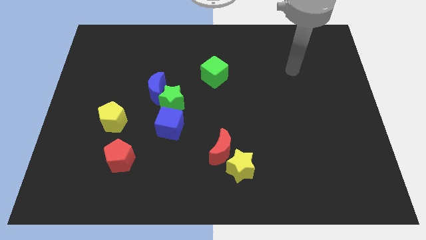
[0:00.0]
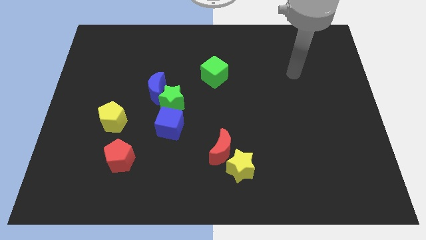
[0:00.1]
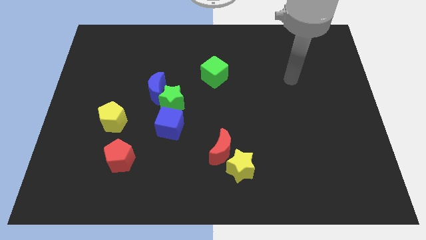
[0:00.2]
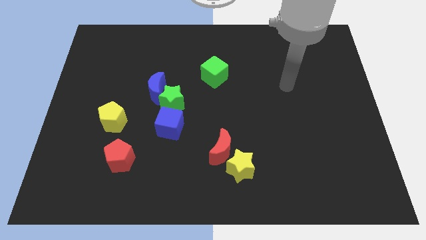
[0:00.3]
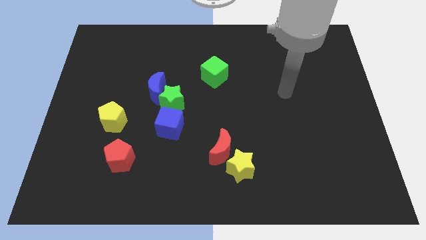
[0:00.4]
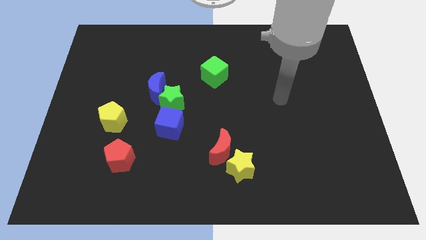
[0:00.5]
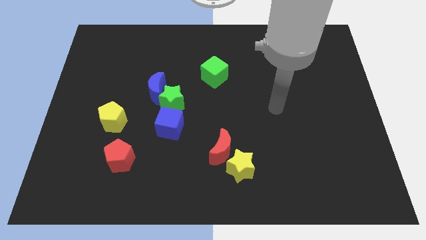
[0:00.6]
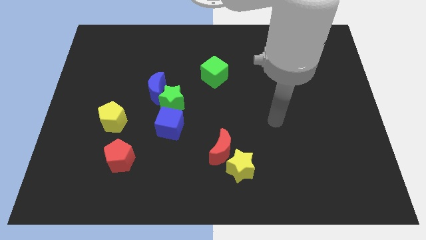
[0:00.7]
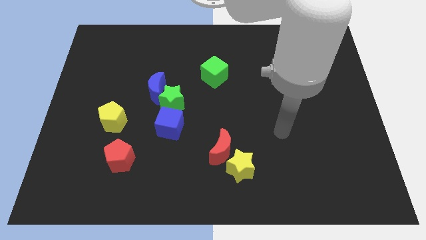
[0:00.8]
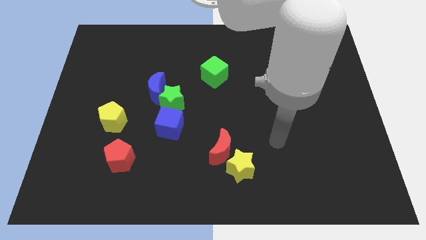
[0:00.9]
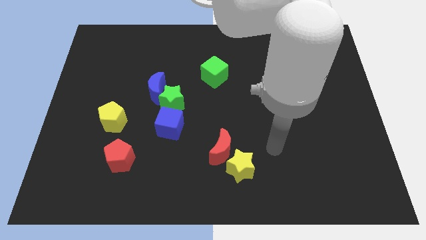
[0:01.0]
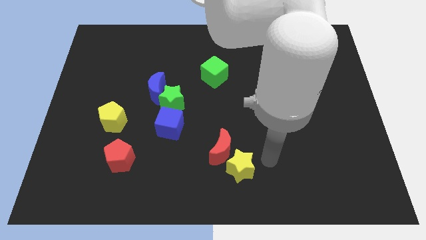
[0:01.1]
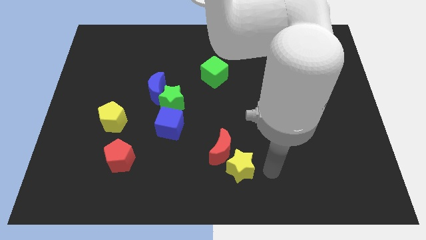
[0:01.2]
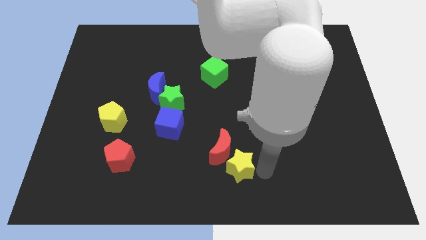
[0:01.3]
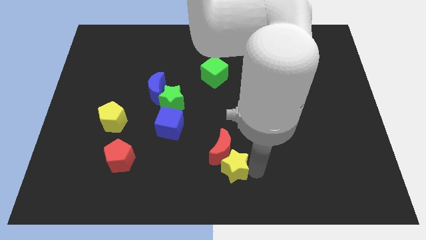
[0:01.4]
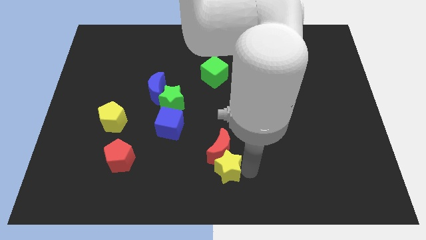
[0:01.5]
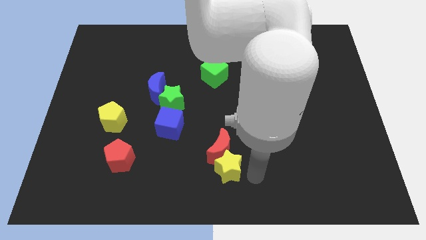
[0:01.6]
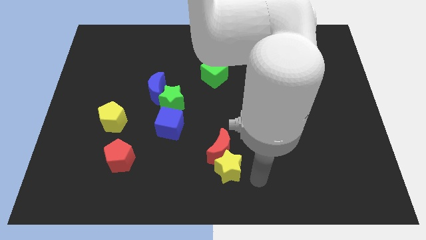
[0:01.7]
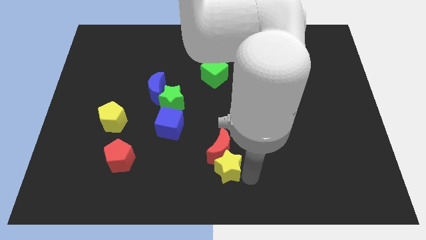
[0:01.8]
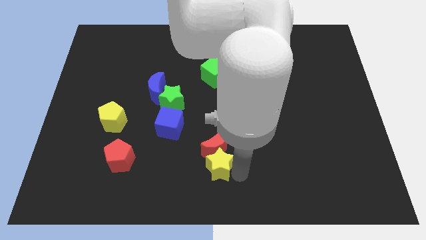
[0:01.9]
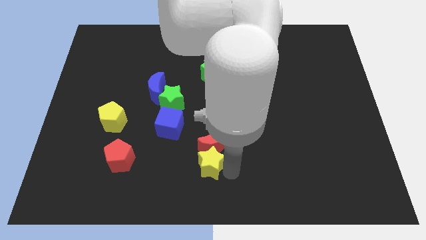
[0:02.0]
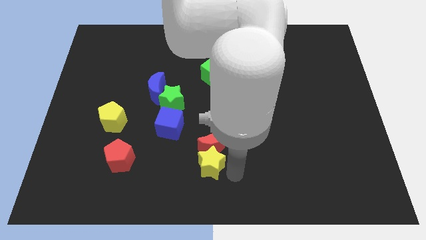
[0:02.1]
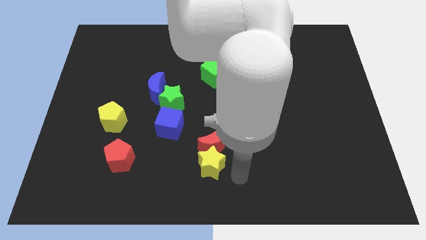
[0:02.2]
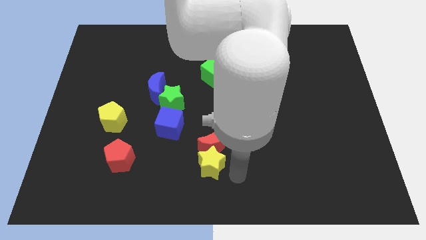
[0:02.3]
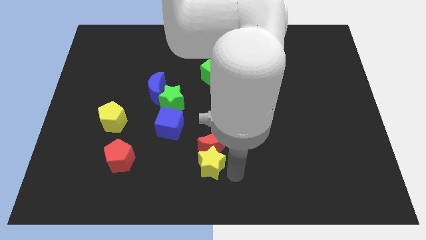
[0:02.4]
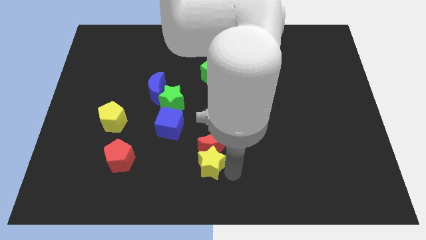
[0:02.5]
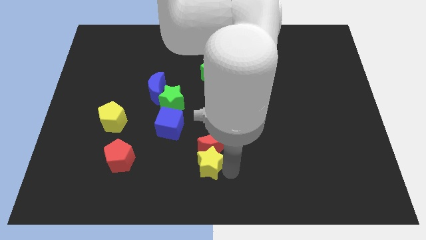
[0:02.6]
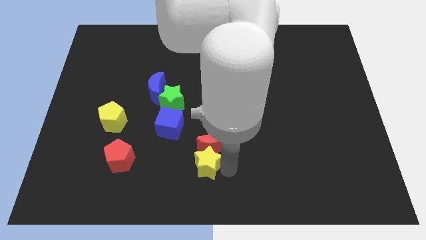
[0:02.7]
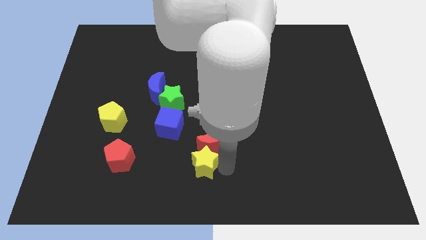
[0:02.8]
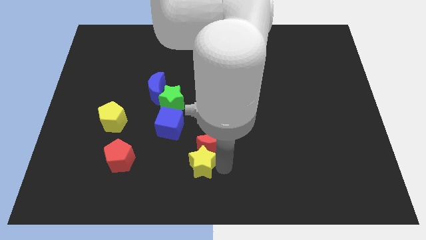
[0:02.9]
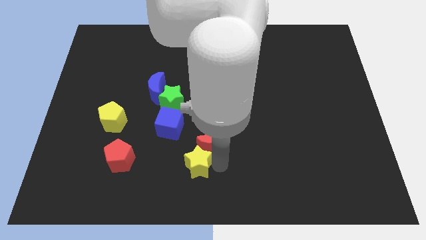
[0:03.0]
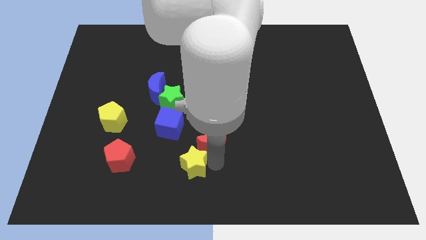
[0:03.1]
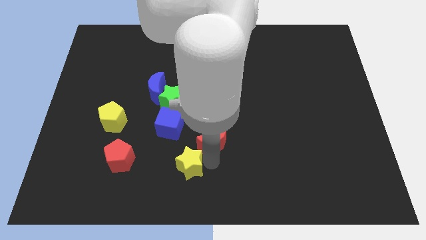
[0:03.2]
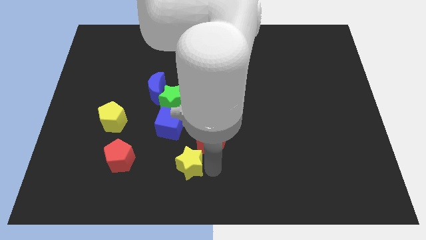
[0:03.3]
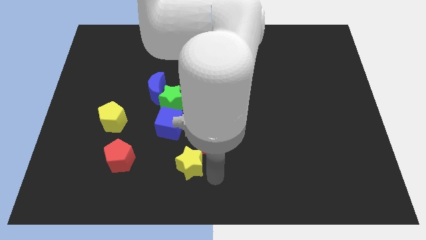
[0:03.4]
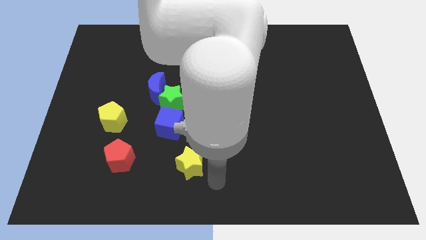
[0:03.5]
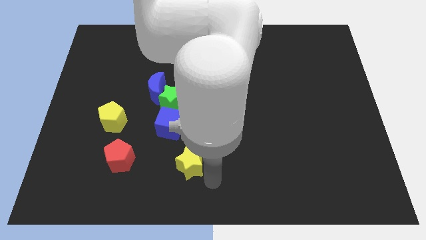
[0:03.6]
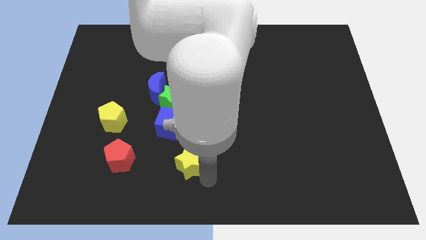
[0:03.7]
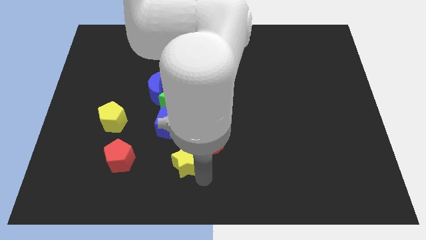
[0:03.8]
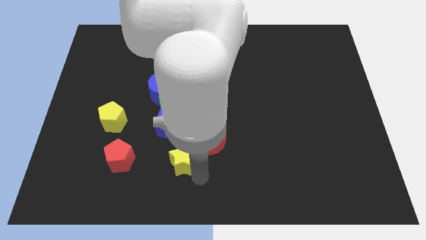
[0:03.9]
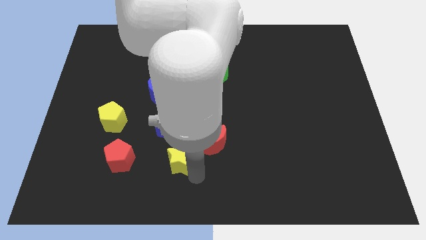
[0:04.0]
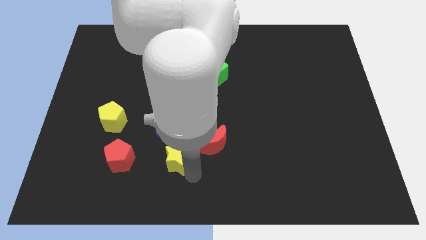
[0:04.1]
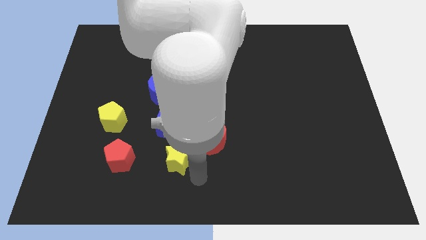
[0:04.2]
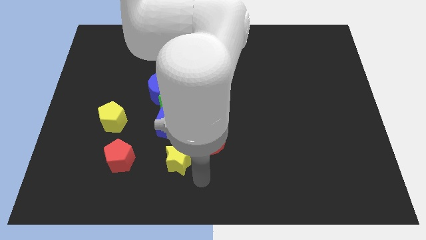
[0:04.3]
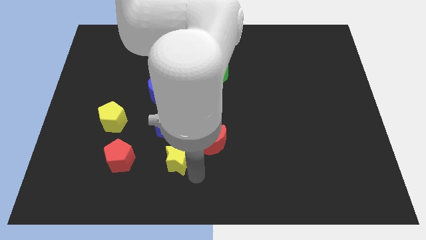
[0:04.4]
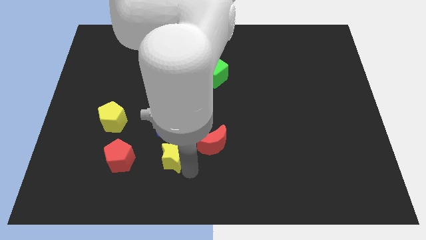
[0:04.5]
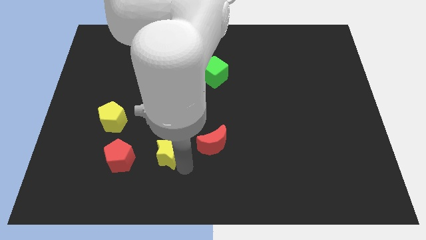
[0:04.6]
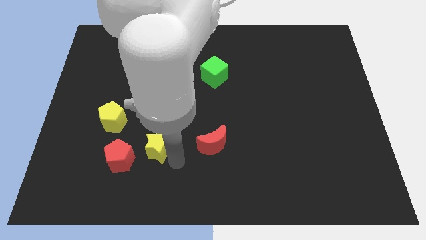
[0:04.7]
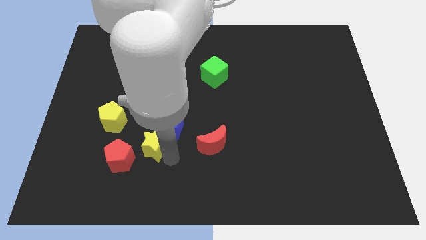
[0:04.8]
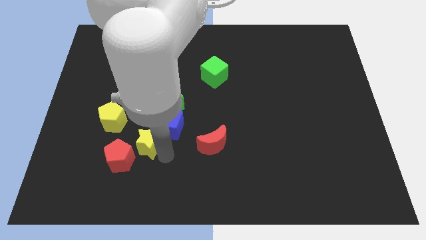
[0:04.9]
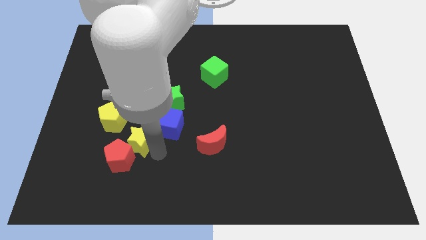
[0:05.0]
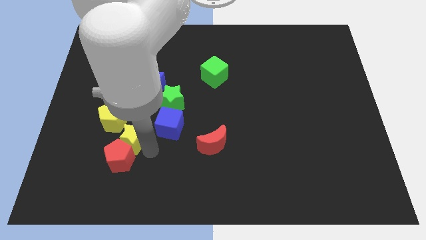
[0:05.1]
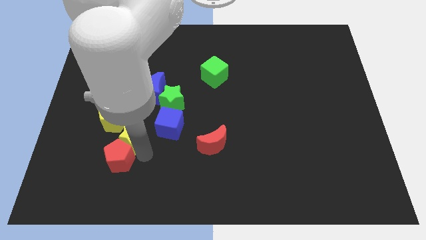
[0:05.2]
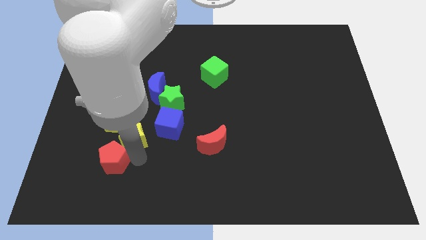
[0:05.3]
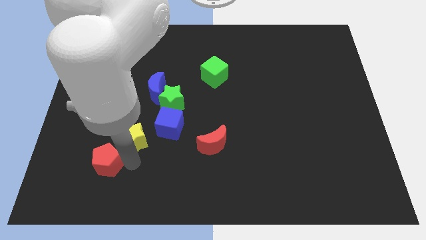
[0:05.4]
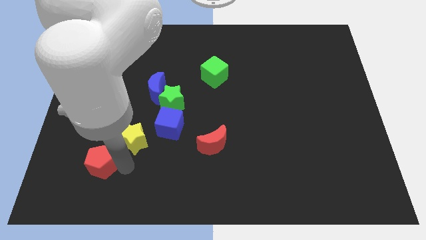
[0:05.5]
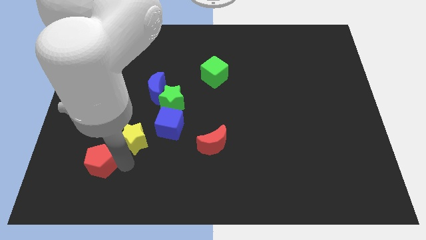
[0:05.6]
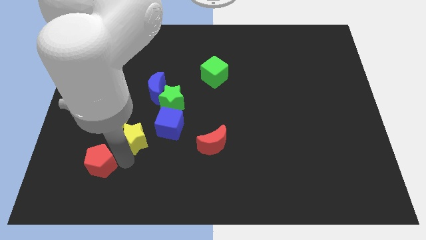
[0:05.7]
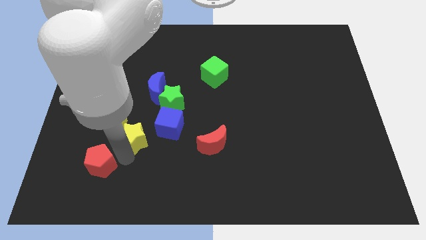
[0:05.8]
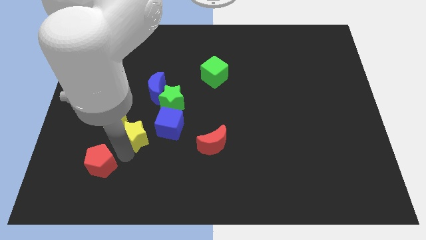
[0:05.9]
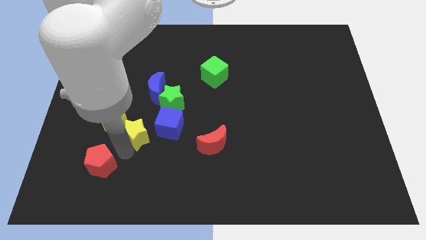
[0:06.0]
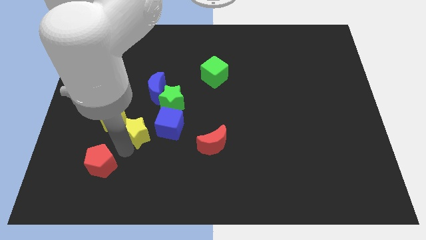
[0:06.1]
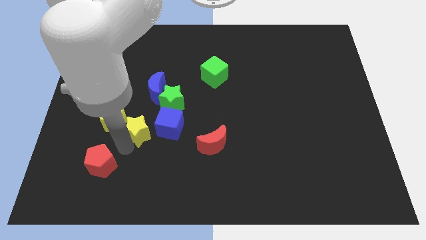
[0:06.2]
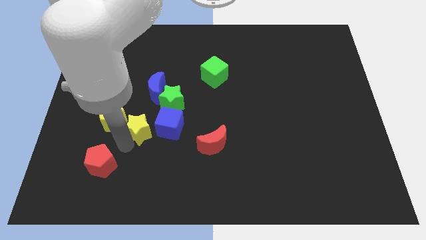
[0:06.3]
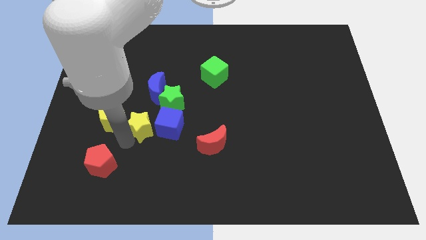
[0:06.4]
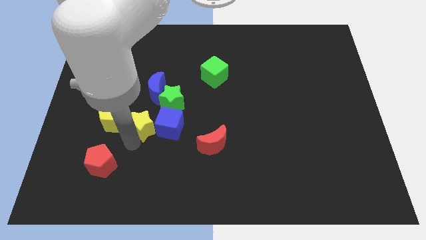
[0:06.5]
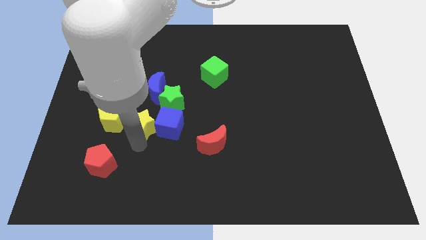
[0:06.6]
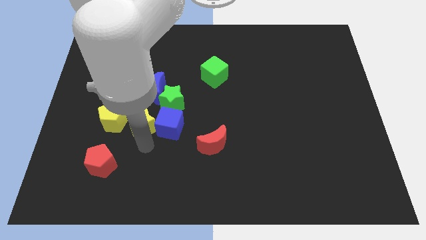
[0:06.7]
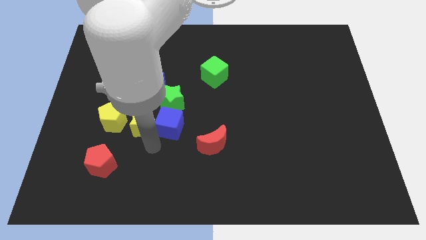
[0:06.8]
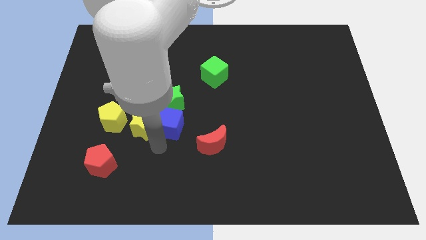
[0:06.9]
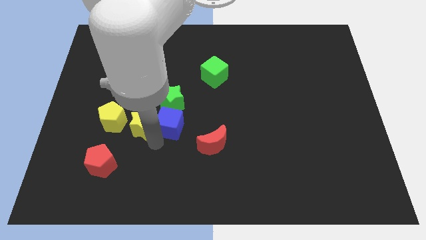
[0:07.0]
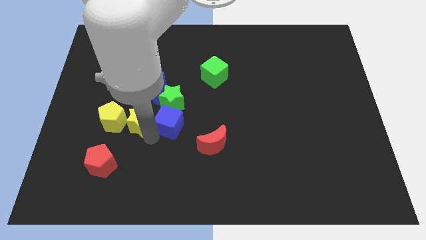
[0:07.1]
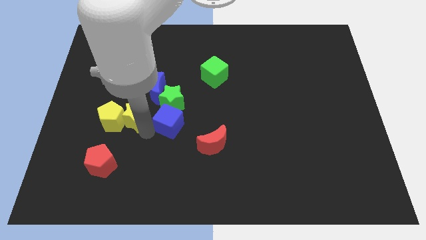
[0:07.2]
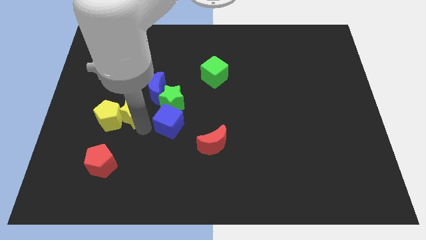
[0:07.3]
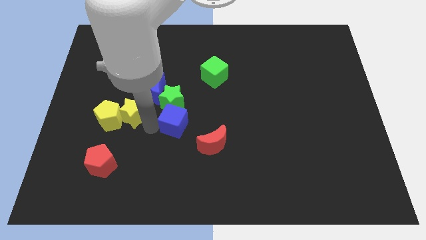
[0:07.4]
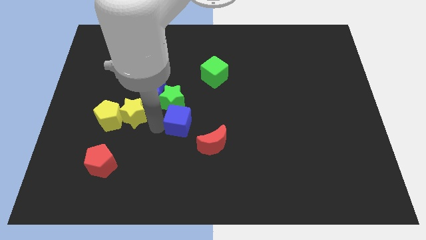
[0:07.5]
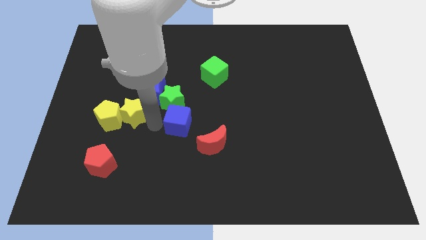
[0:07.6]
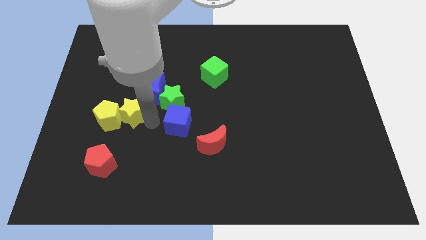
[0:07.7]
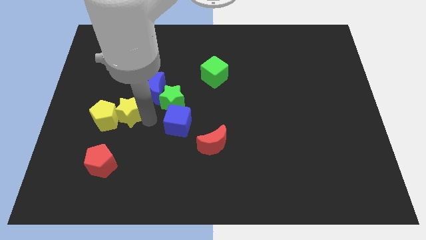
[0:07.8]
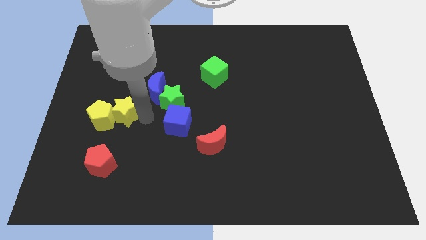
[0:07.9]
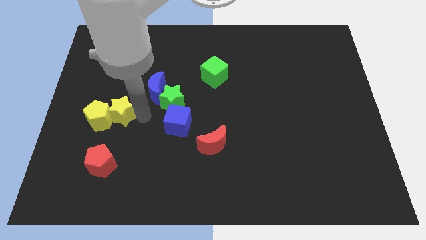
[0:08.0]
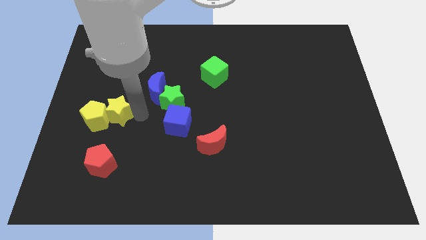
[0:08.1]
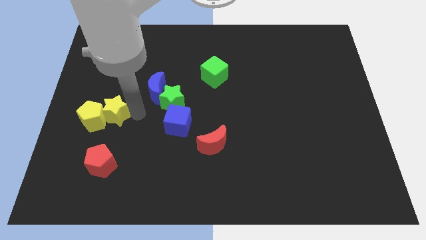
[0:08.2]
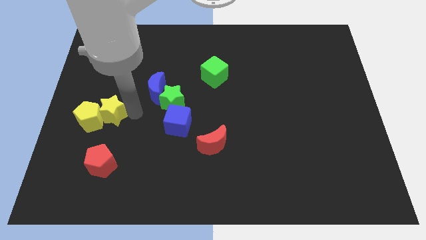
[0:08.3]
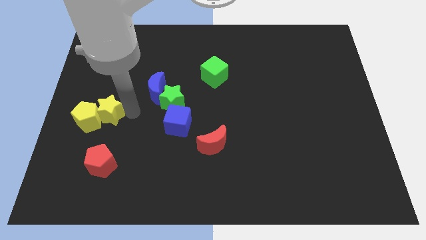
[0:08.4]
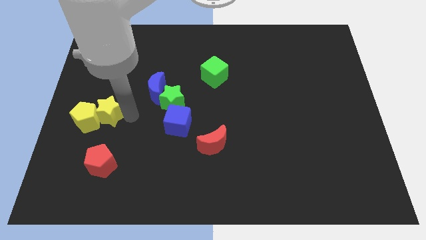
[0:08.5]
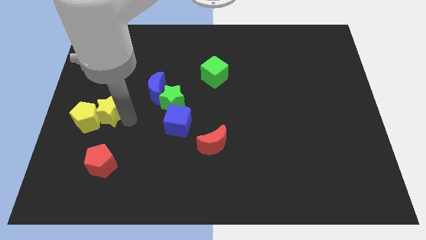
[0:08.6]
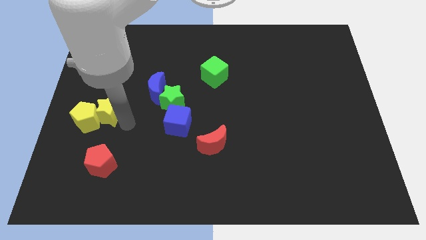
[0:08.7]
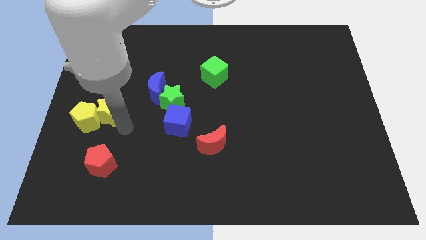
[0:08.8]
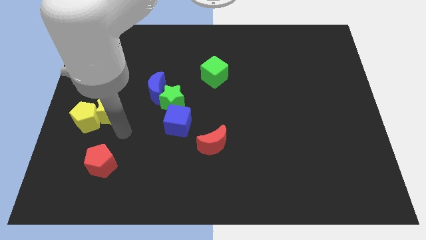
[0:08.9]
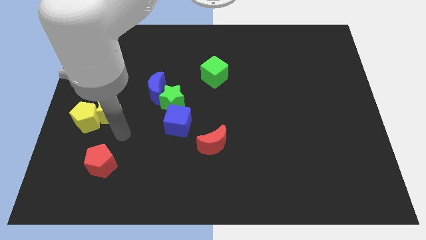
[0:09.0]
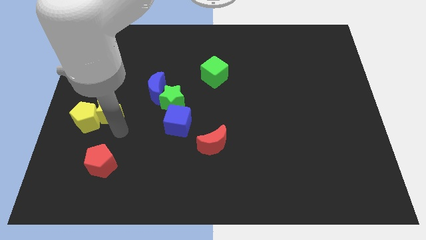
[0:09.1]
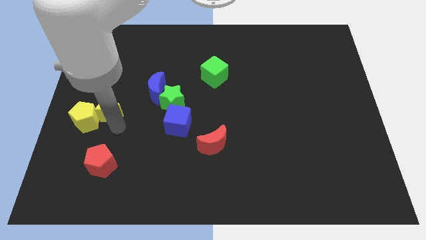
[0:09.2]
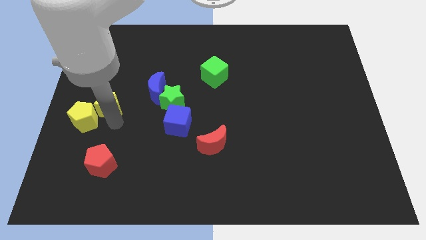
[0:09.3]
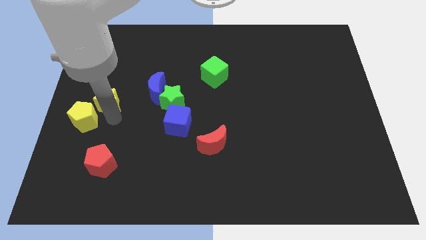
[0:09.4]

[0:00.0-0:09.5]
push the yellow star to the left side of the board
